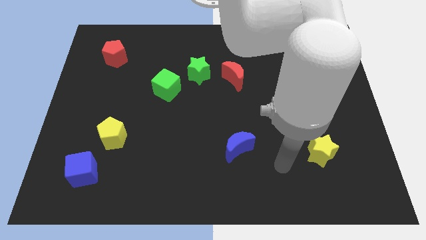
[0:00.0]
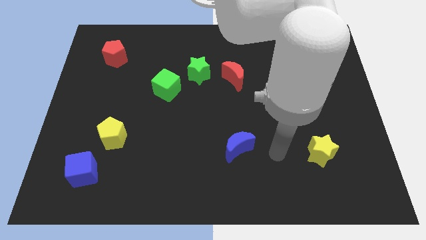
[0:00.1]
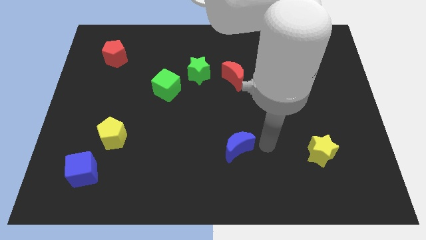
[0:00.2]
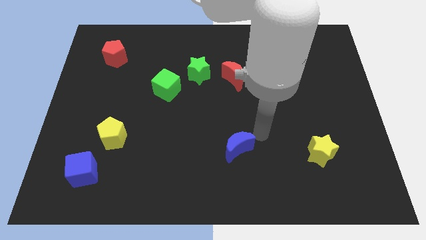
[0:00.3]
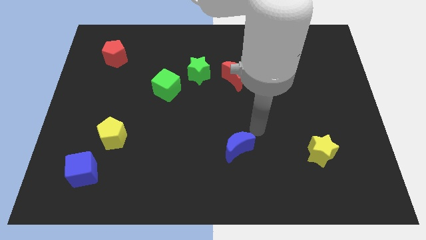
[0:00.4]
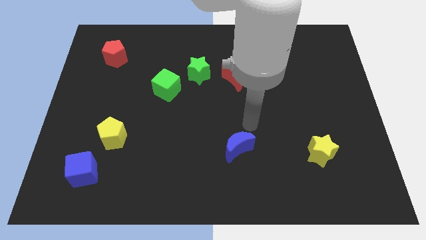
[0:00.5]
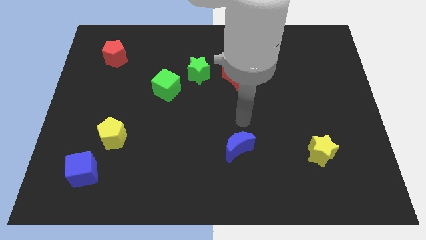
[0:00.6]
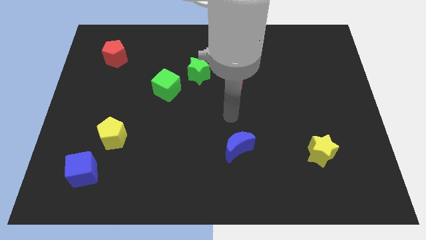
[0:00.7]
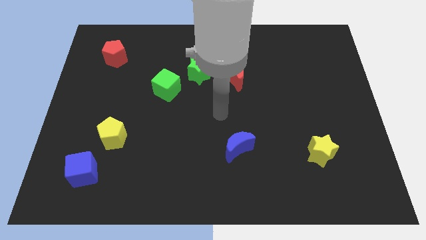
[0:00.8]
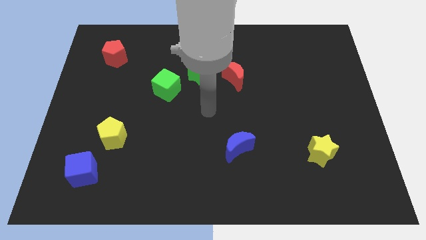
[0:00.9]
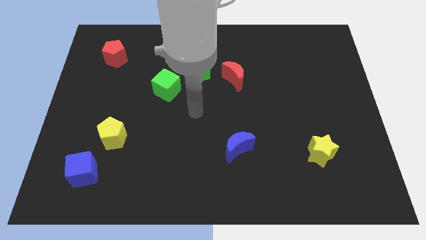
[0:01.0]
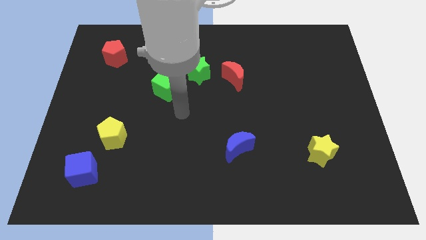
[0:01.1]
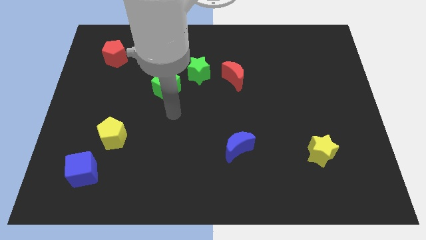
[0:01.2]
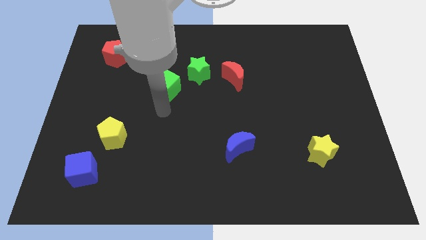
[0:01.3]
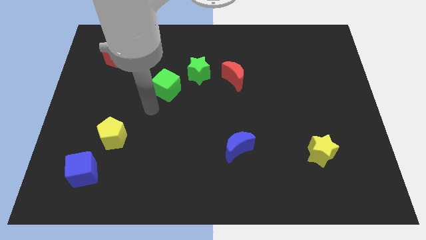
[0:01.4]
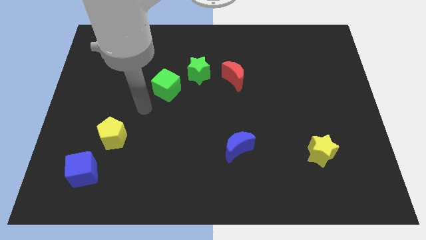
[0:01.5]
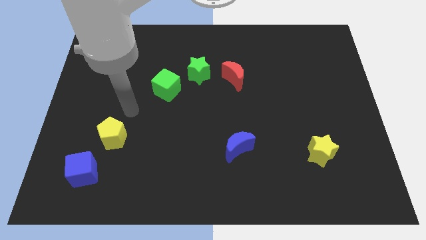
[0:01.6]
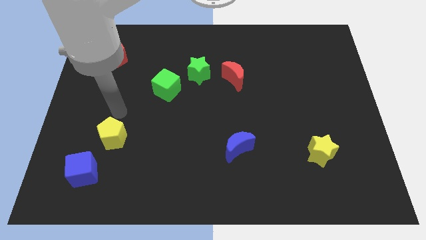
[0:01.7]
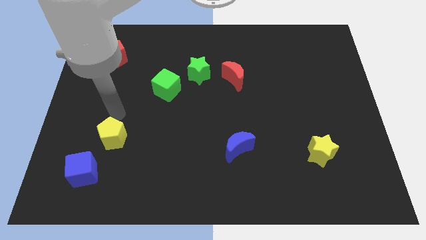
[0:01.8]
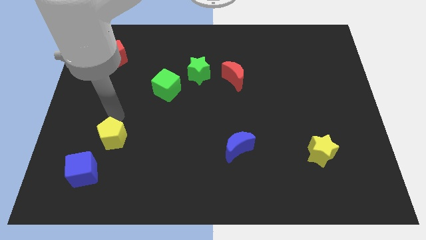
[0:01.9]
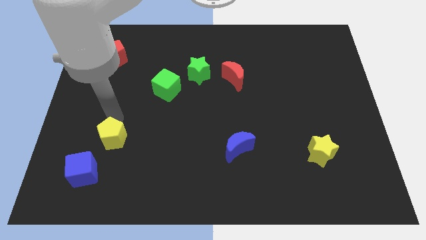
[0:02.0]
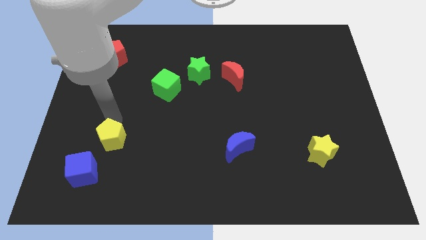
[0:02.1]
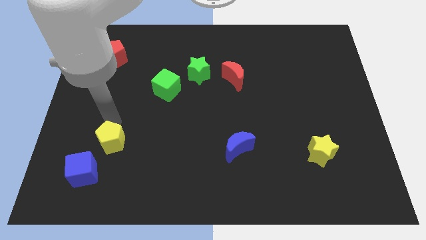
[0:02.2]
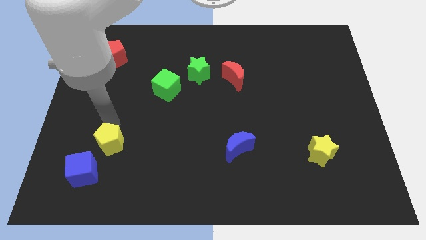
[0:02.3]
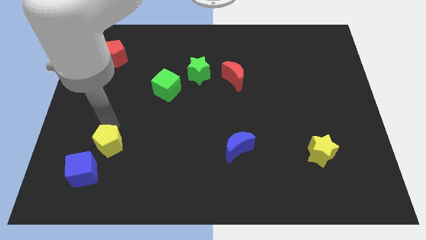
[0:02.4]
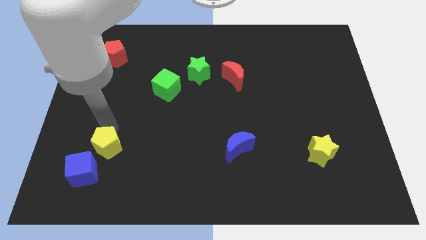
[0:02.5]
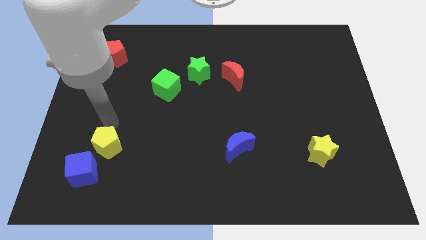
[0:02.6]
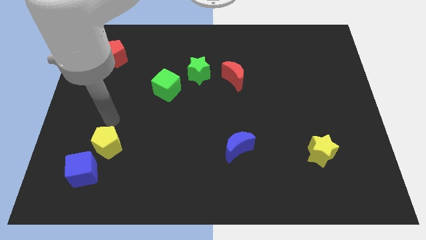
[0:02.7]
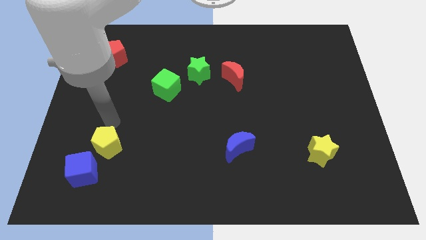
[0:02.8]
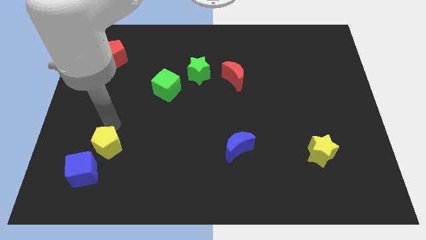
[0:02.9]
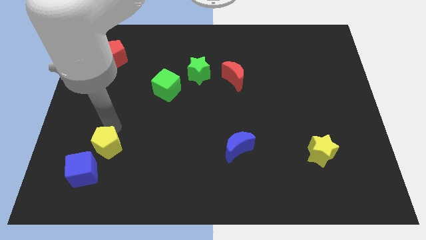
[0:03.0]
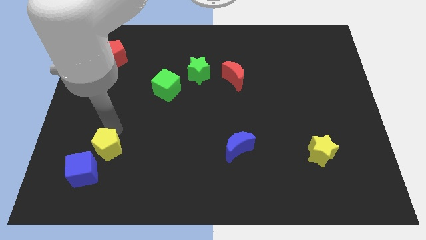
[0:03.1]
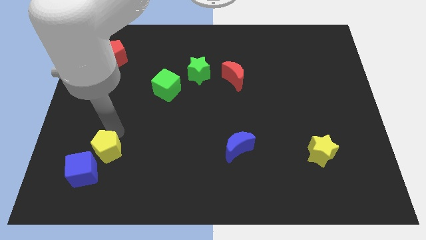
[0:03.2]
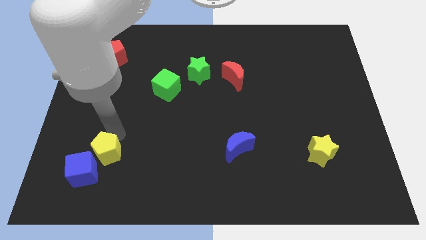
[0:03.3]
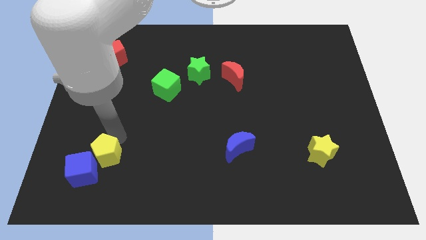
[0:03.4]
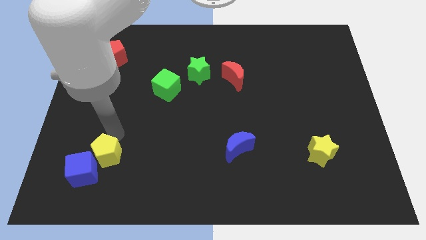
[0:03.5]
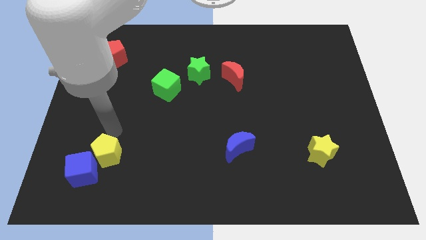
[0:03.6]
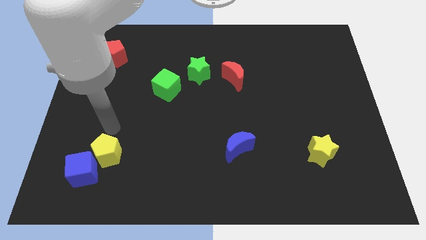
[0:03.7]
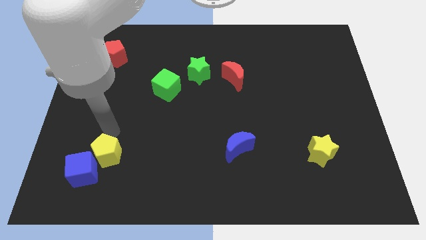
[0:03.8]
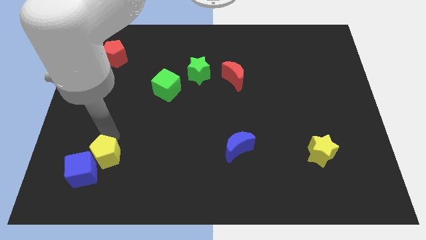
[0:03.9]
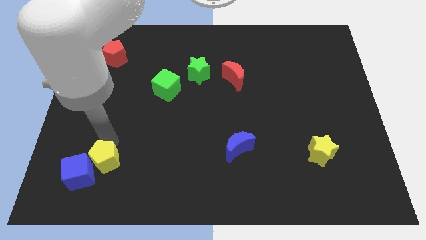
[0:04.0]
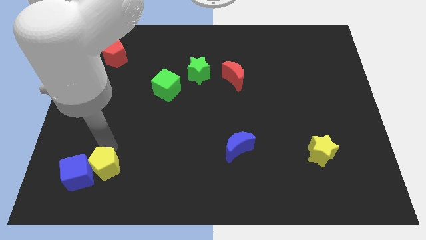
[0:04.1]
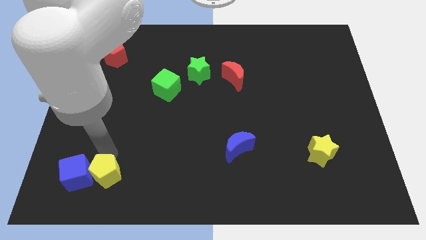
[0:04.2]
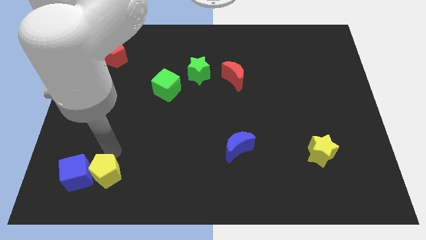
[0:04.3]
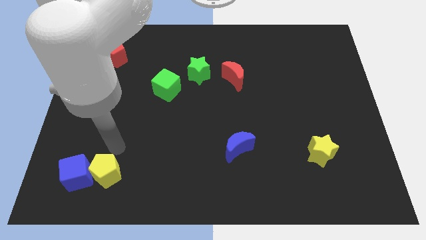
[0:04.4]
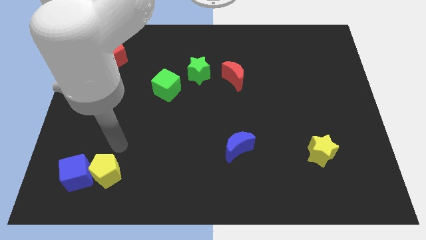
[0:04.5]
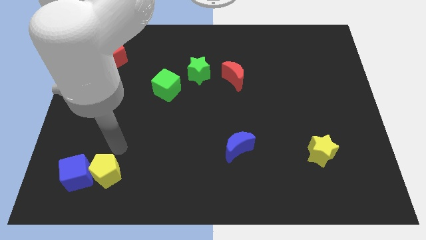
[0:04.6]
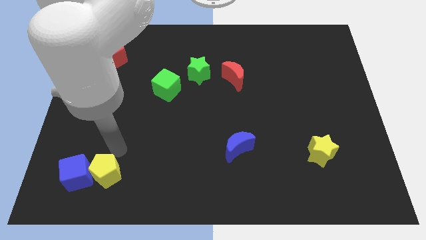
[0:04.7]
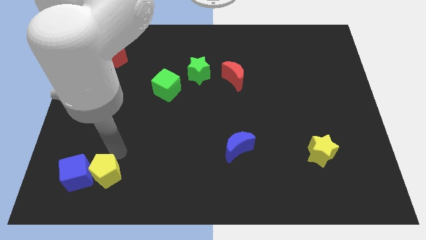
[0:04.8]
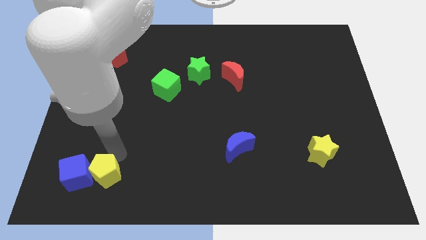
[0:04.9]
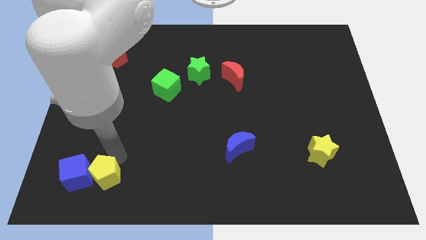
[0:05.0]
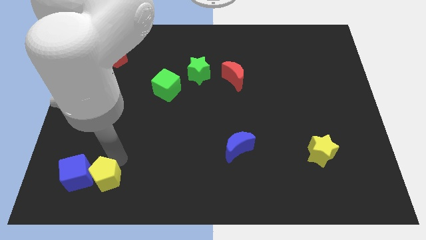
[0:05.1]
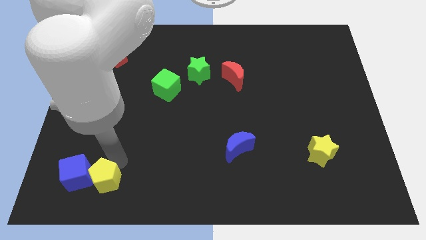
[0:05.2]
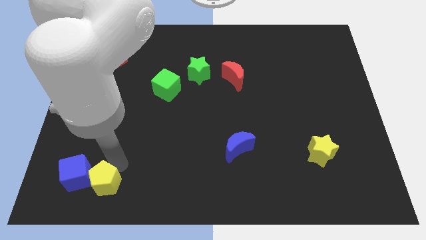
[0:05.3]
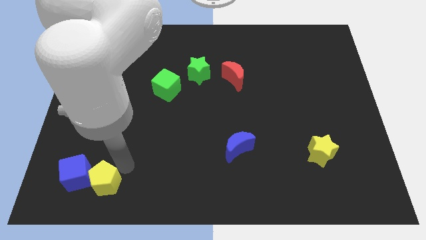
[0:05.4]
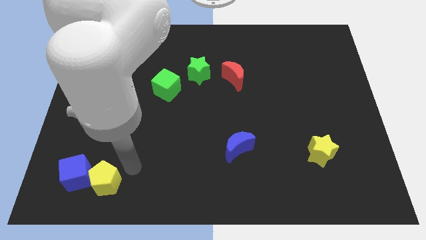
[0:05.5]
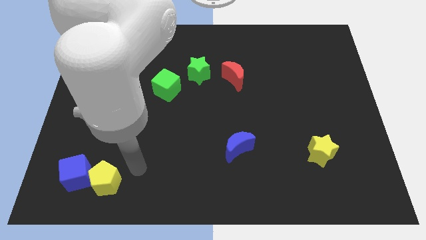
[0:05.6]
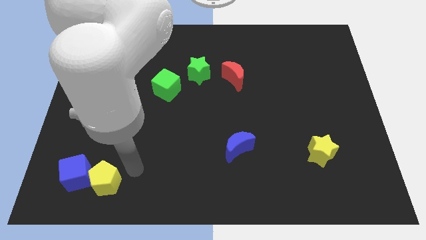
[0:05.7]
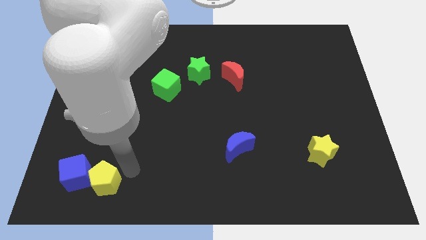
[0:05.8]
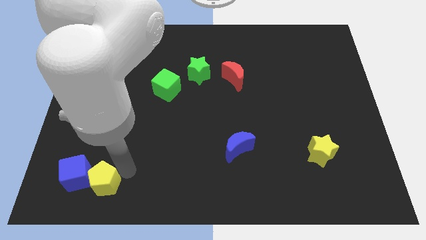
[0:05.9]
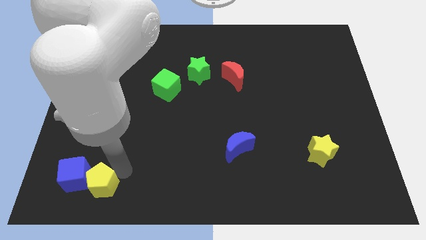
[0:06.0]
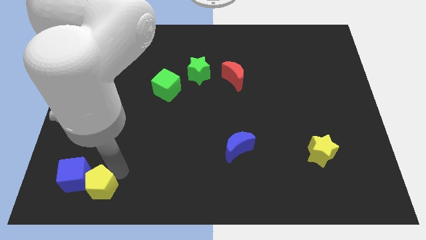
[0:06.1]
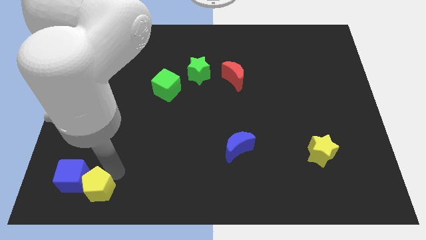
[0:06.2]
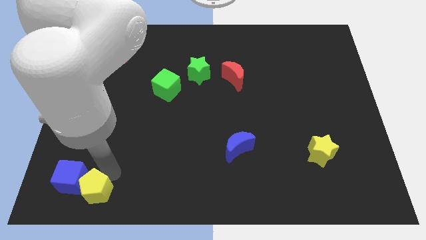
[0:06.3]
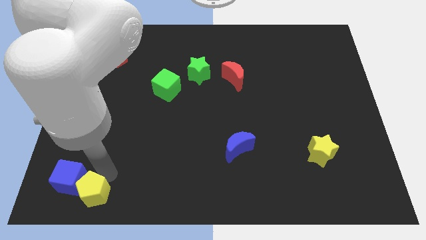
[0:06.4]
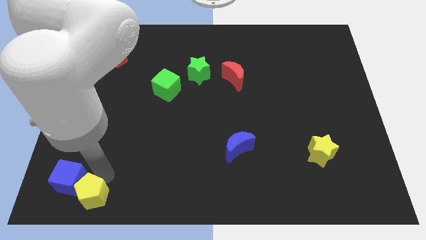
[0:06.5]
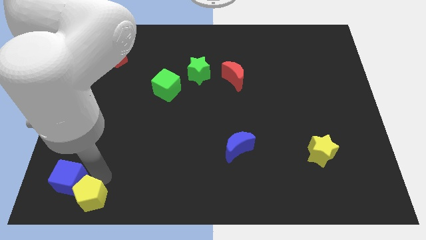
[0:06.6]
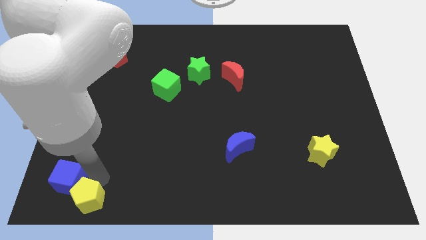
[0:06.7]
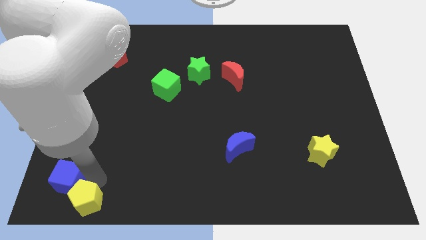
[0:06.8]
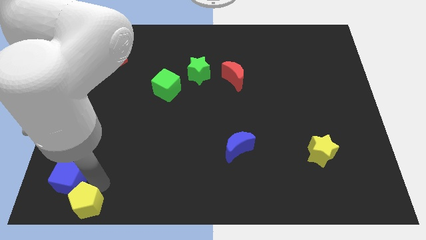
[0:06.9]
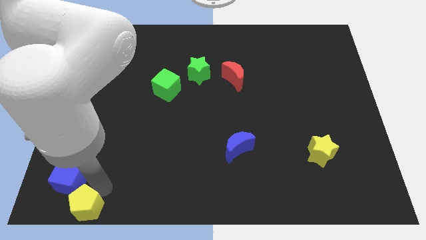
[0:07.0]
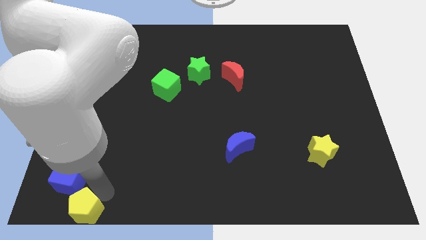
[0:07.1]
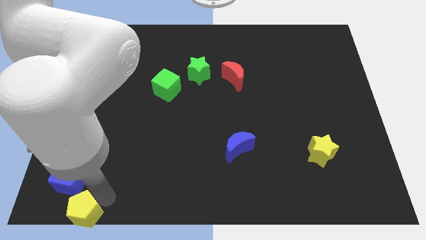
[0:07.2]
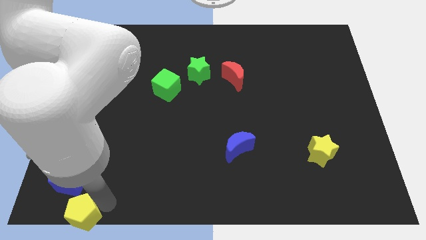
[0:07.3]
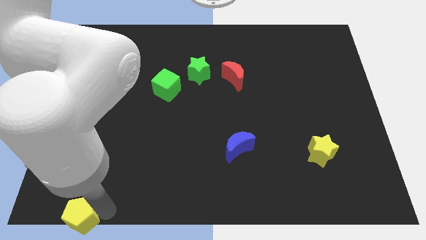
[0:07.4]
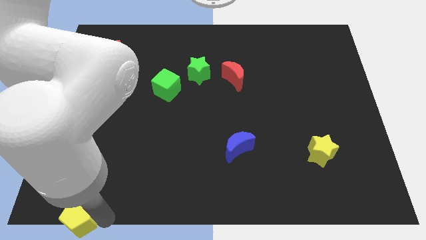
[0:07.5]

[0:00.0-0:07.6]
put the yellow pentagon to the lower left corner
